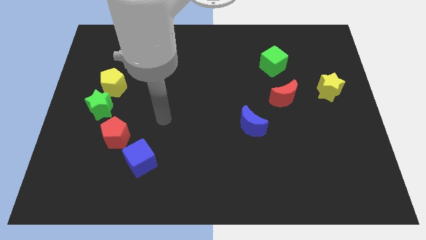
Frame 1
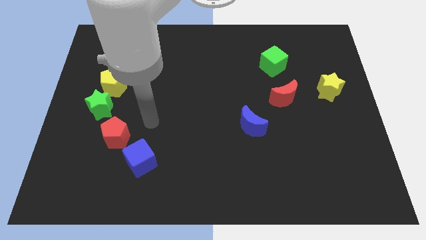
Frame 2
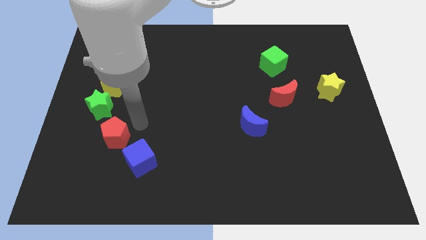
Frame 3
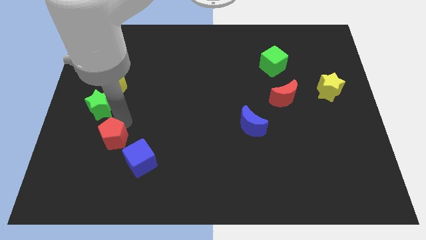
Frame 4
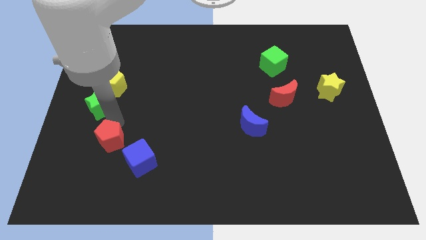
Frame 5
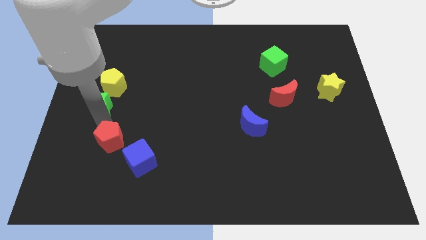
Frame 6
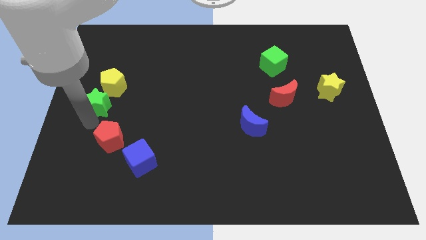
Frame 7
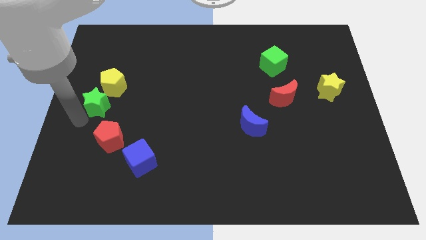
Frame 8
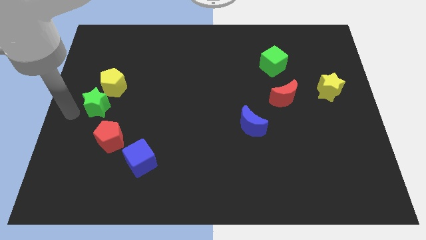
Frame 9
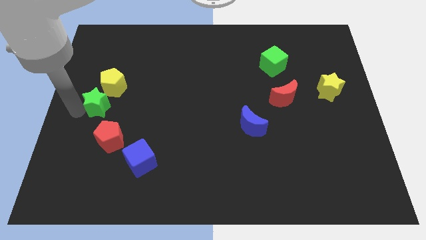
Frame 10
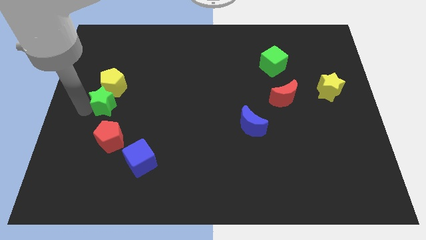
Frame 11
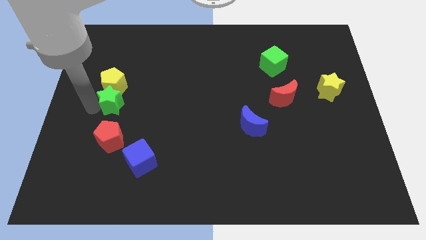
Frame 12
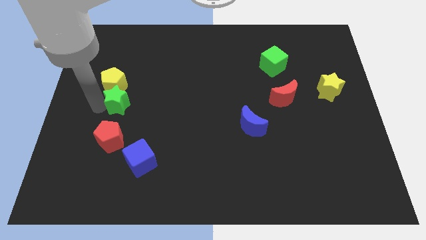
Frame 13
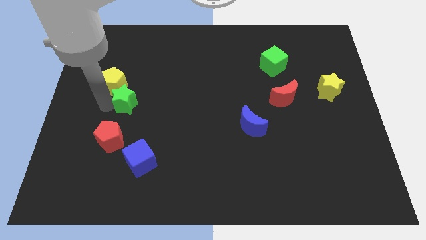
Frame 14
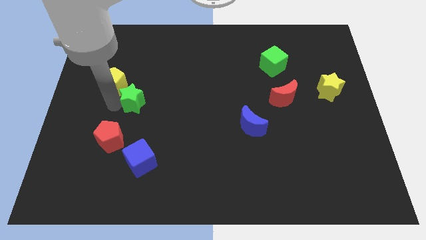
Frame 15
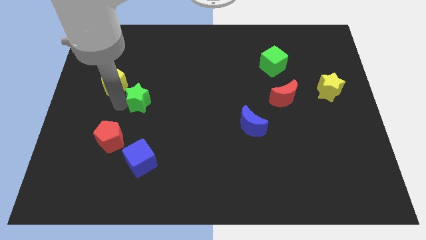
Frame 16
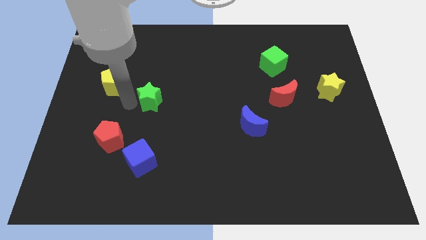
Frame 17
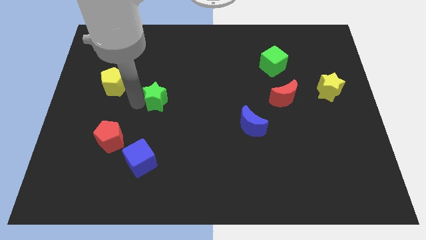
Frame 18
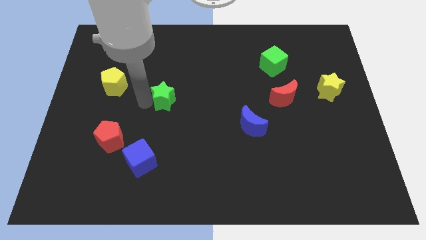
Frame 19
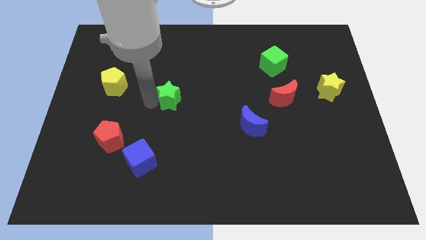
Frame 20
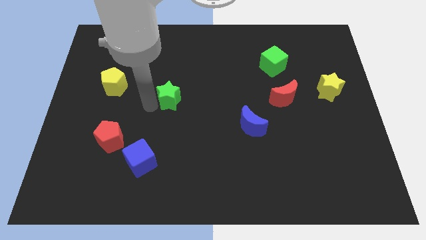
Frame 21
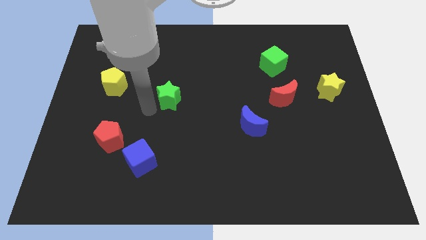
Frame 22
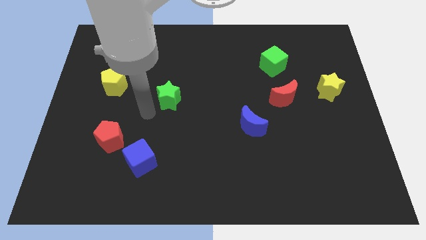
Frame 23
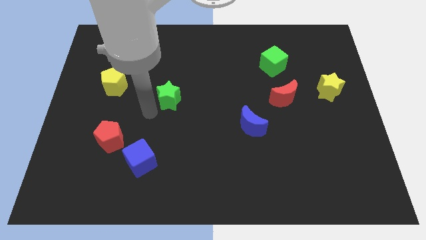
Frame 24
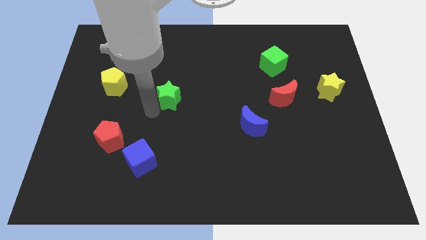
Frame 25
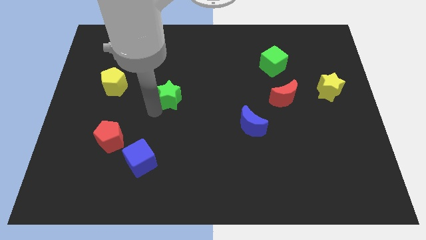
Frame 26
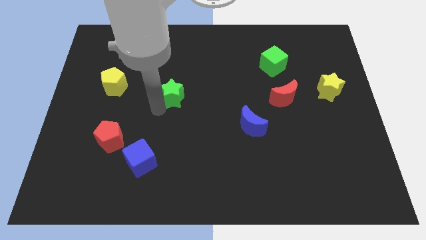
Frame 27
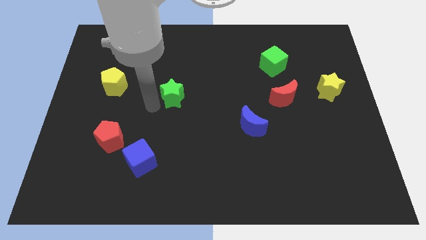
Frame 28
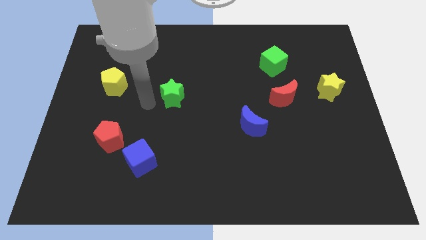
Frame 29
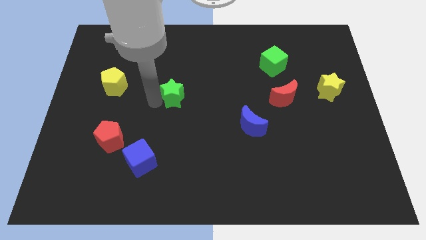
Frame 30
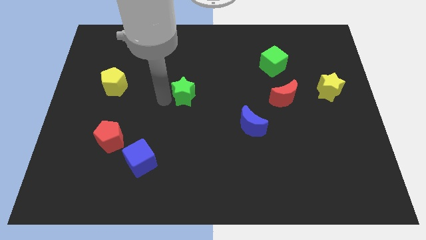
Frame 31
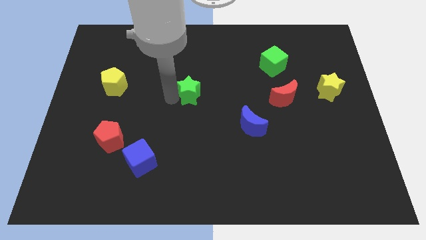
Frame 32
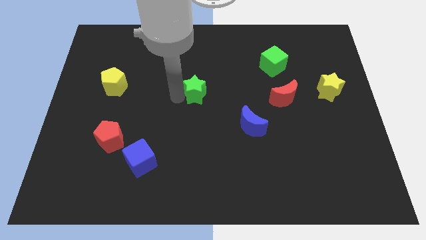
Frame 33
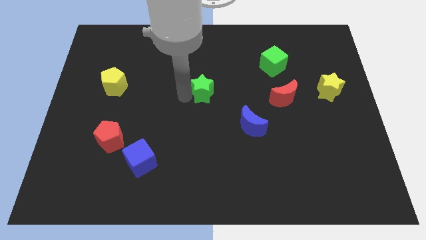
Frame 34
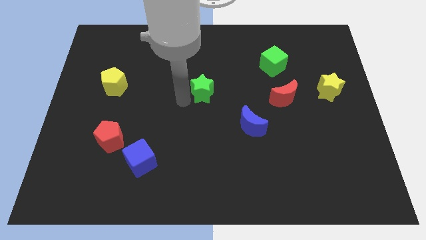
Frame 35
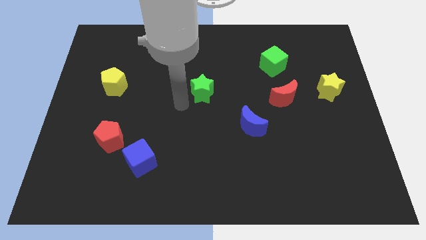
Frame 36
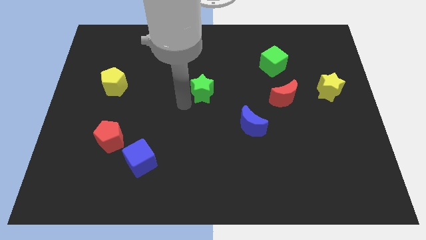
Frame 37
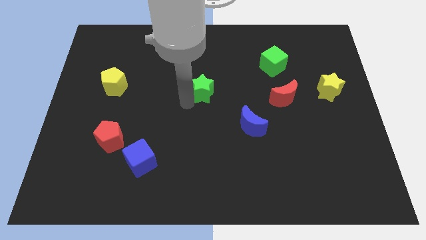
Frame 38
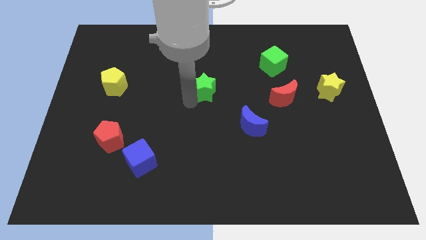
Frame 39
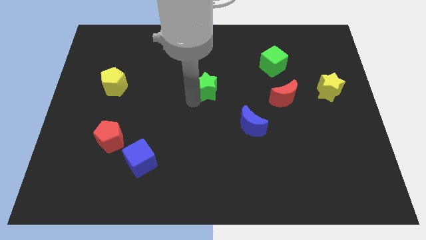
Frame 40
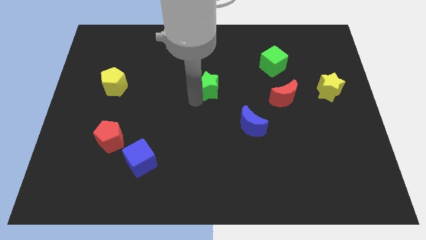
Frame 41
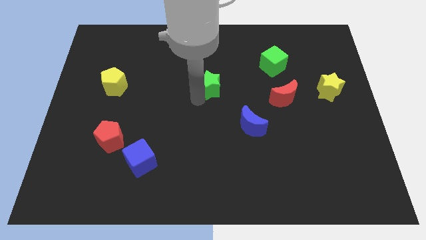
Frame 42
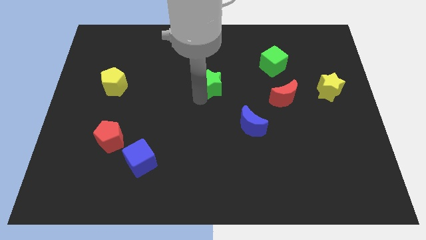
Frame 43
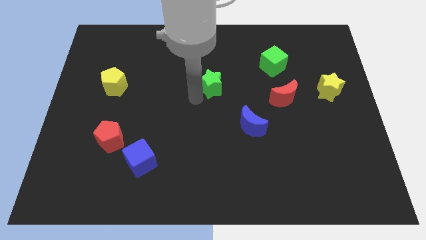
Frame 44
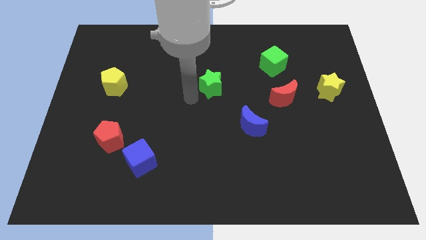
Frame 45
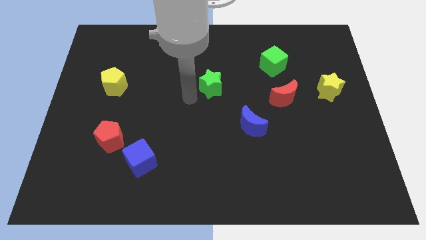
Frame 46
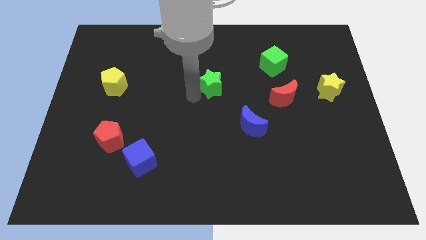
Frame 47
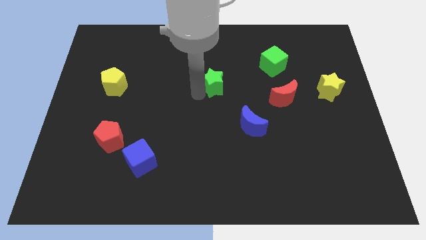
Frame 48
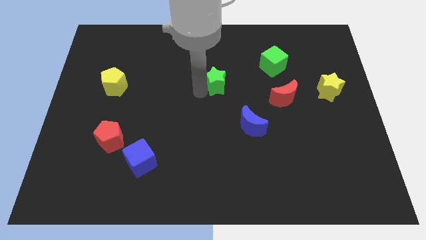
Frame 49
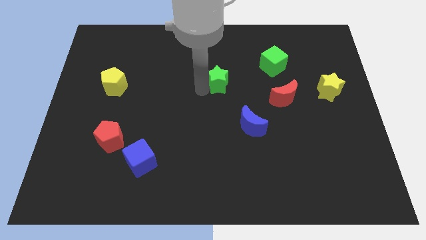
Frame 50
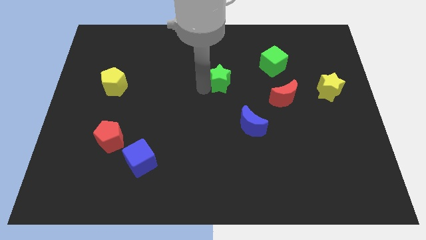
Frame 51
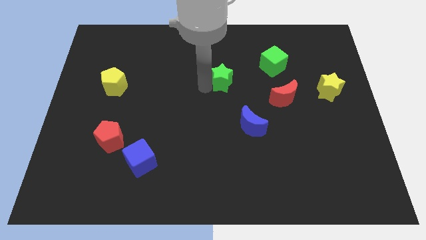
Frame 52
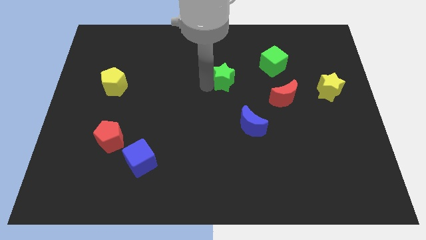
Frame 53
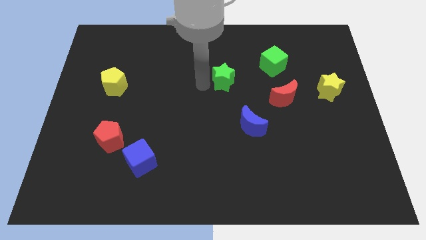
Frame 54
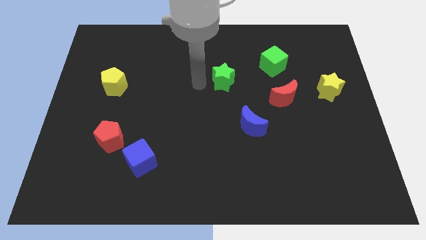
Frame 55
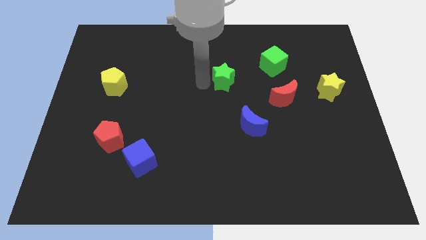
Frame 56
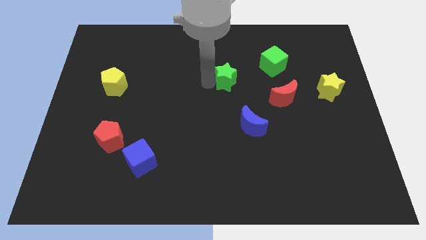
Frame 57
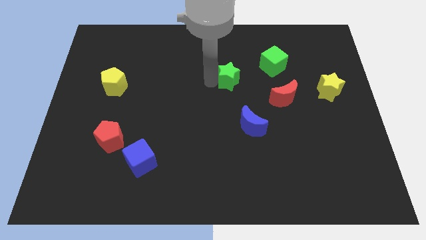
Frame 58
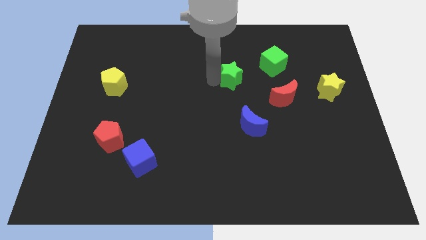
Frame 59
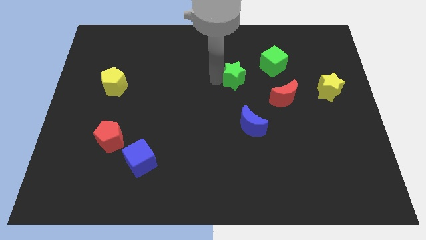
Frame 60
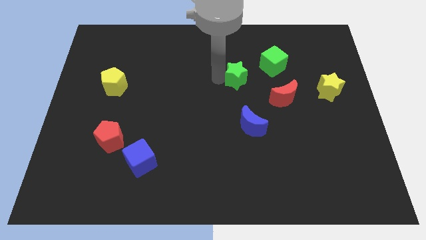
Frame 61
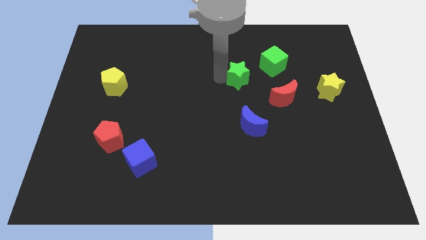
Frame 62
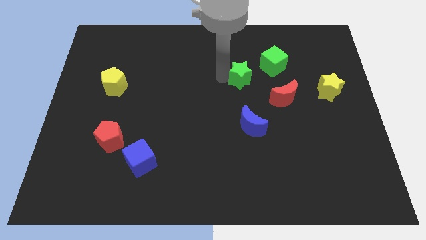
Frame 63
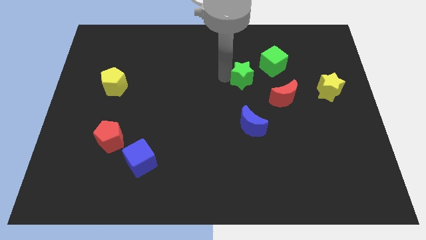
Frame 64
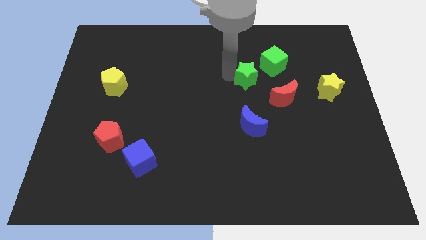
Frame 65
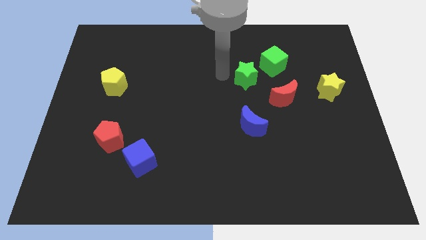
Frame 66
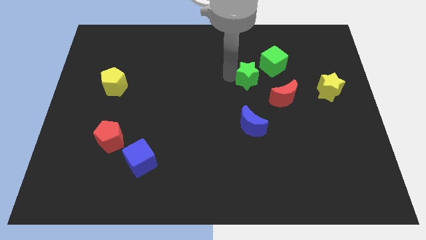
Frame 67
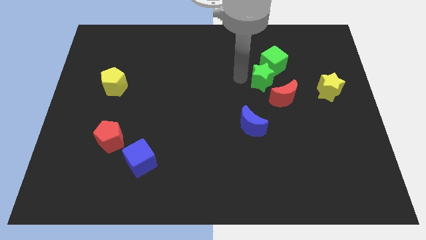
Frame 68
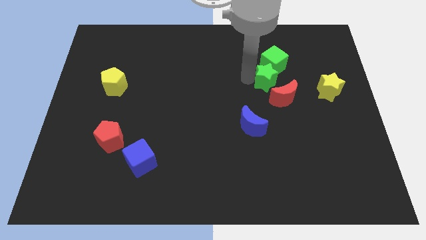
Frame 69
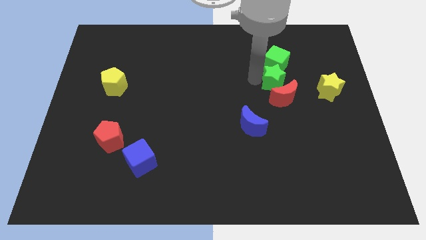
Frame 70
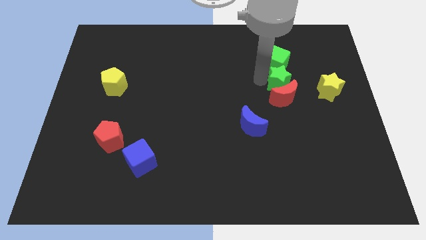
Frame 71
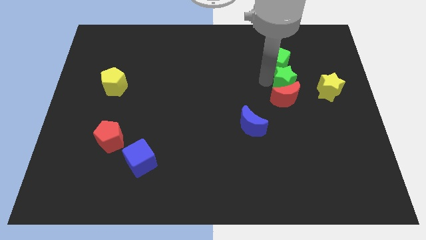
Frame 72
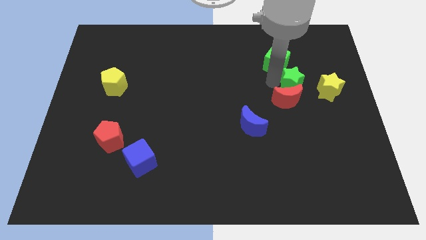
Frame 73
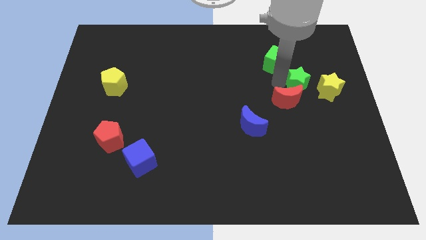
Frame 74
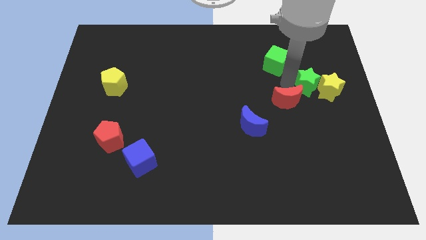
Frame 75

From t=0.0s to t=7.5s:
slide the green star towards the yellow star

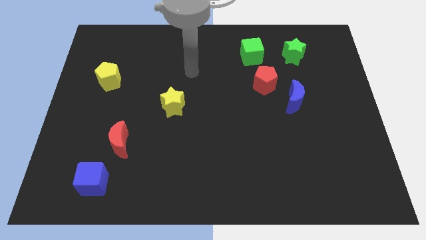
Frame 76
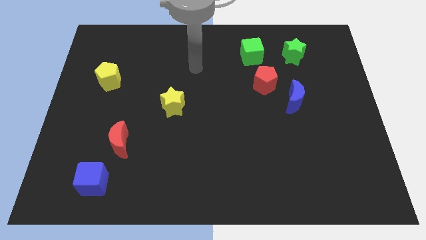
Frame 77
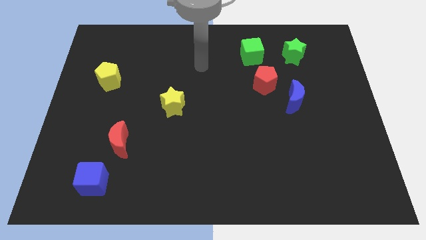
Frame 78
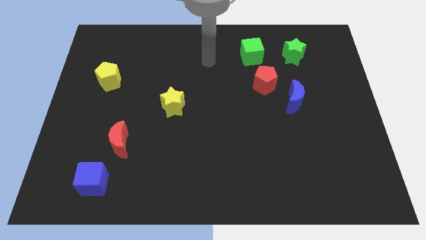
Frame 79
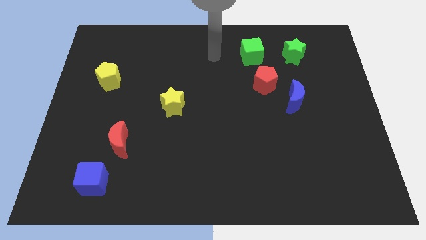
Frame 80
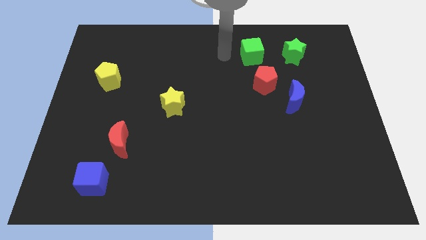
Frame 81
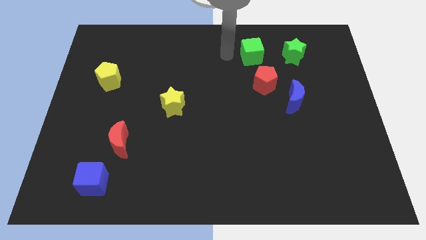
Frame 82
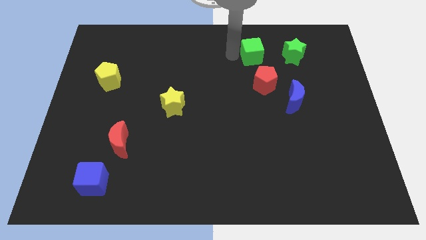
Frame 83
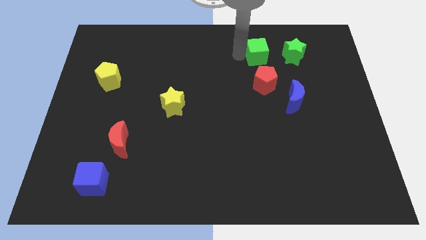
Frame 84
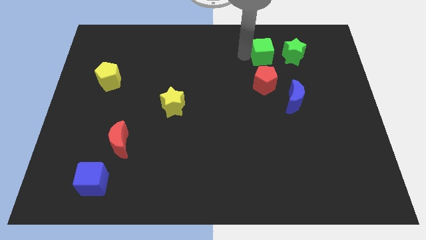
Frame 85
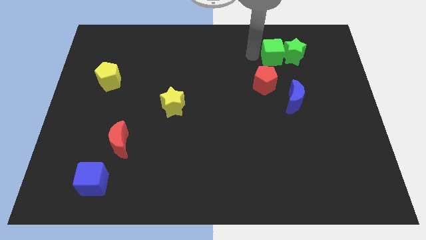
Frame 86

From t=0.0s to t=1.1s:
put the green cube to the green star
